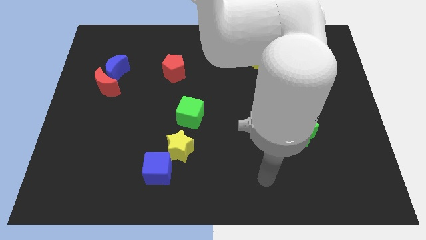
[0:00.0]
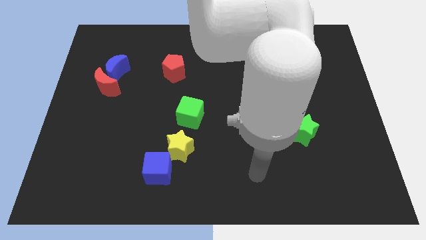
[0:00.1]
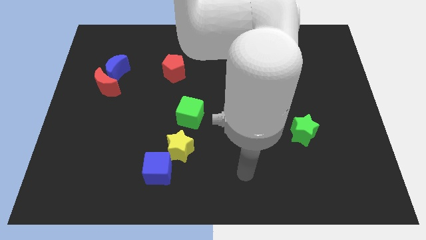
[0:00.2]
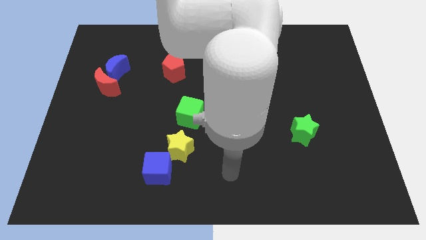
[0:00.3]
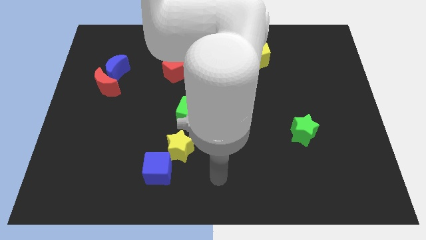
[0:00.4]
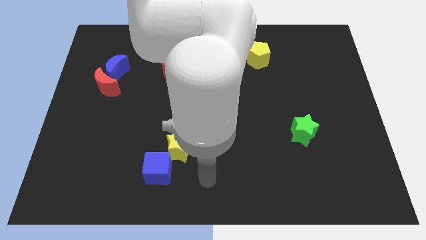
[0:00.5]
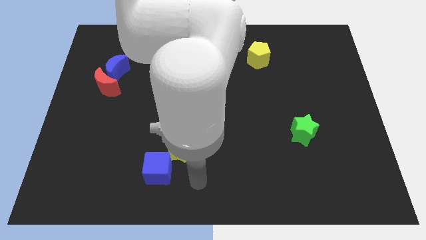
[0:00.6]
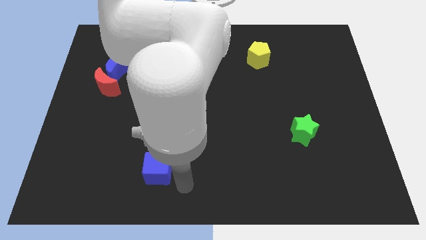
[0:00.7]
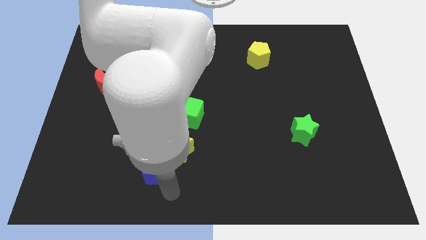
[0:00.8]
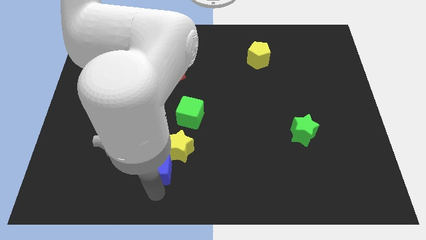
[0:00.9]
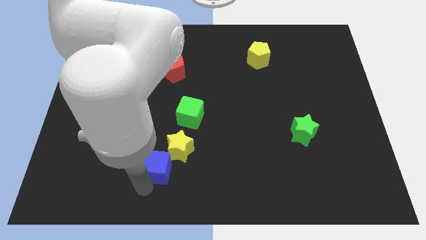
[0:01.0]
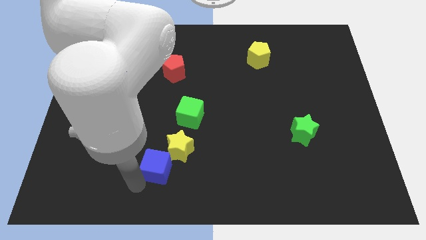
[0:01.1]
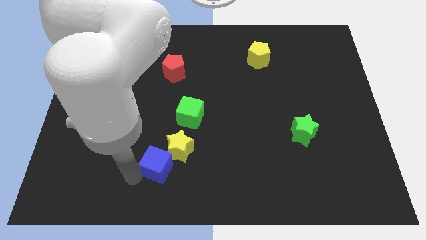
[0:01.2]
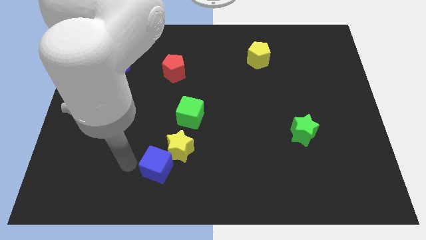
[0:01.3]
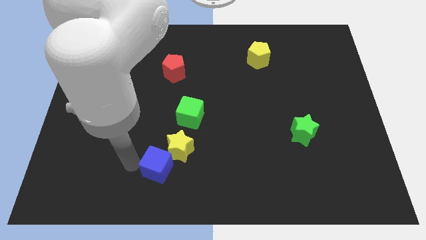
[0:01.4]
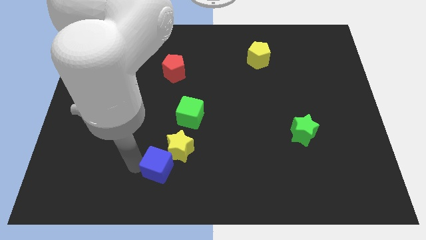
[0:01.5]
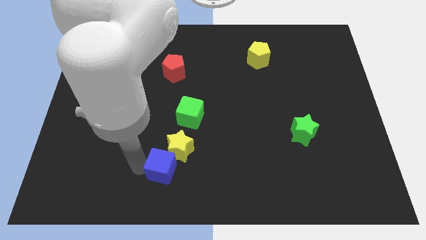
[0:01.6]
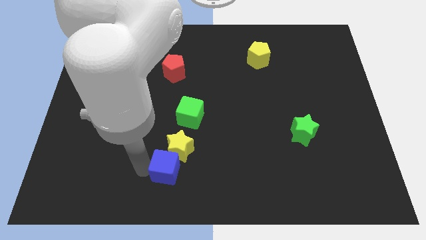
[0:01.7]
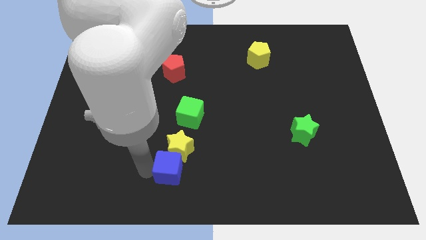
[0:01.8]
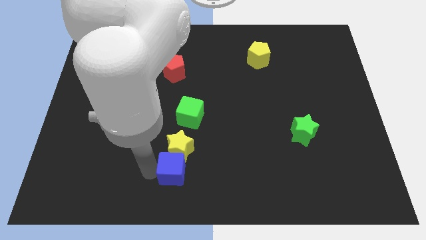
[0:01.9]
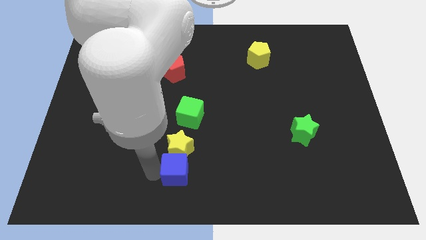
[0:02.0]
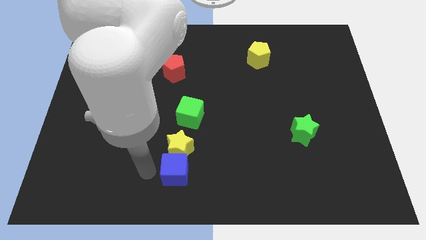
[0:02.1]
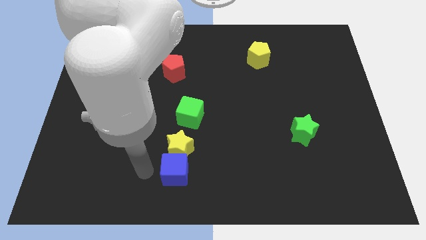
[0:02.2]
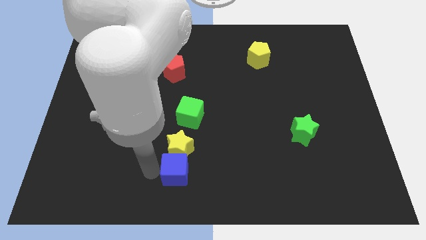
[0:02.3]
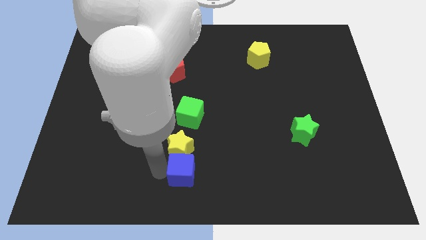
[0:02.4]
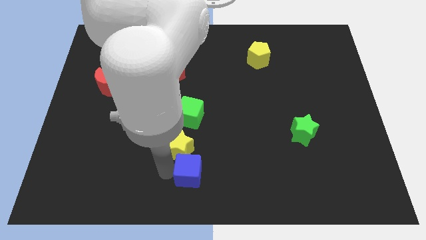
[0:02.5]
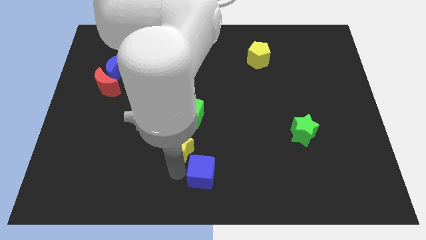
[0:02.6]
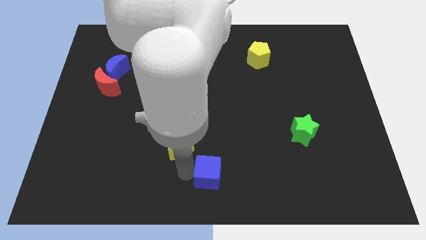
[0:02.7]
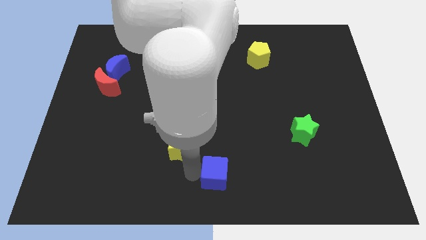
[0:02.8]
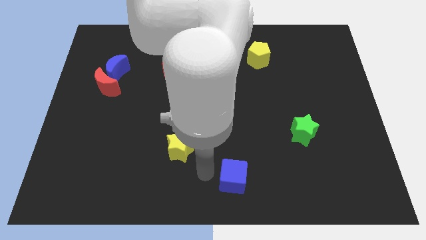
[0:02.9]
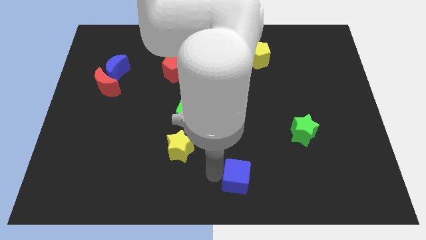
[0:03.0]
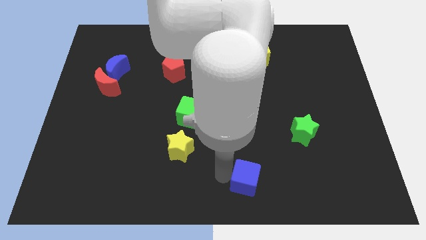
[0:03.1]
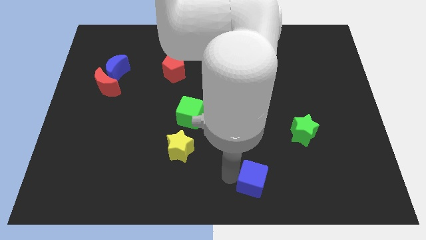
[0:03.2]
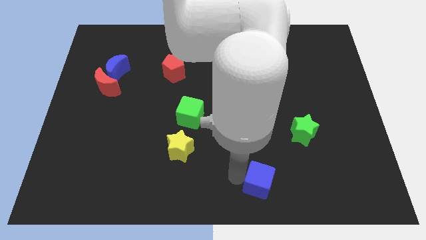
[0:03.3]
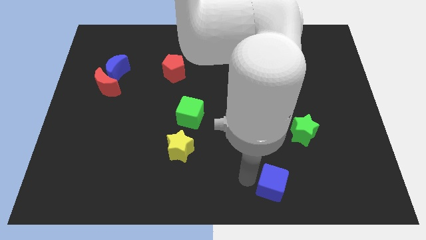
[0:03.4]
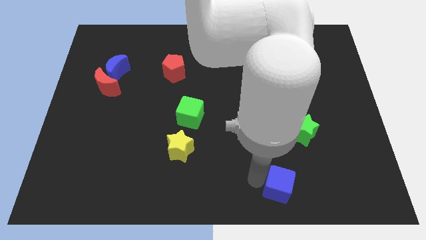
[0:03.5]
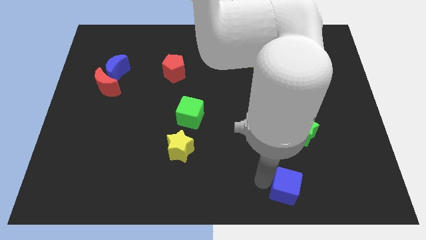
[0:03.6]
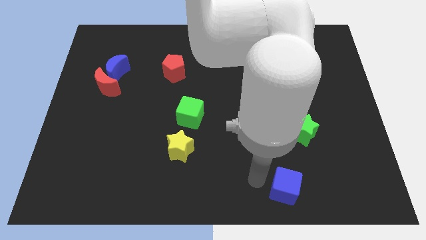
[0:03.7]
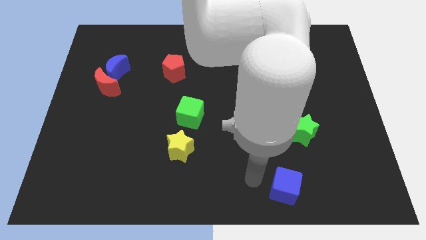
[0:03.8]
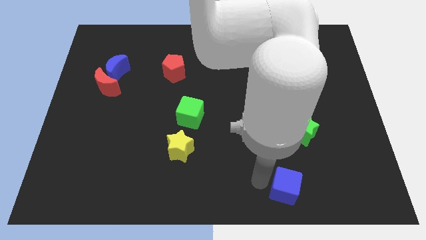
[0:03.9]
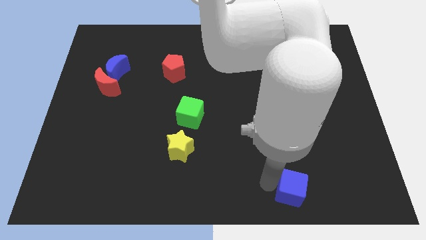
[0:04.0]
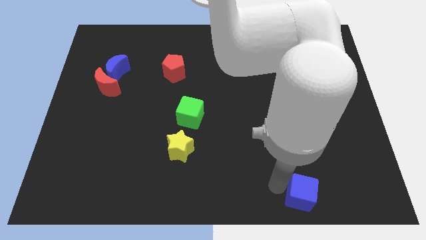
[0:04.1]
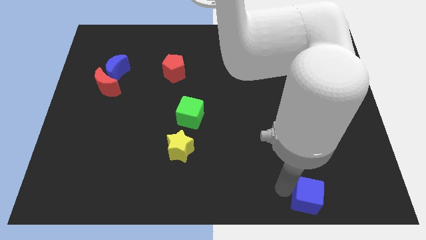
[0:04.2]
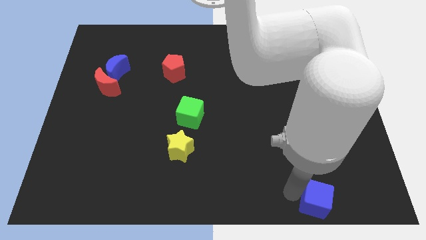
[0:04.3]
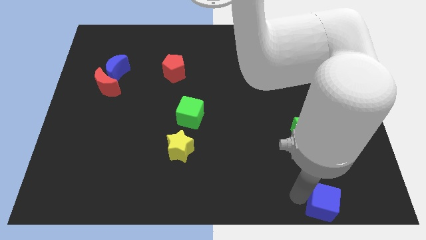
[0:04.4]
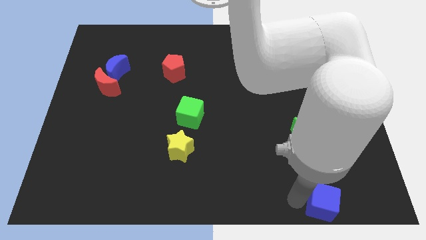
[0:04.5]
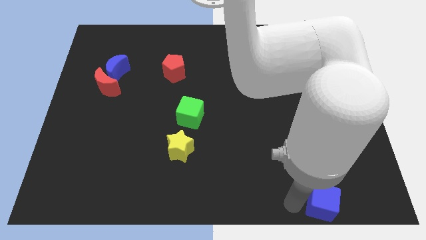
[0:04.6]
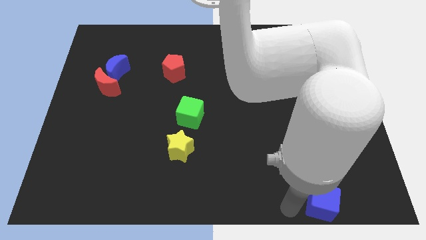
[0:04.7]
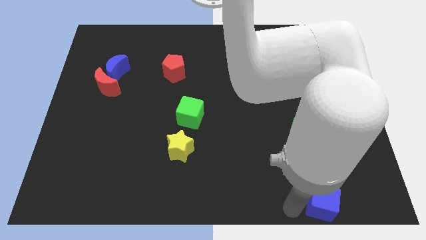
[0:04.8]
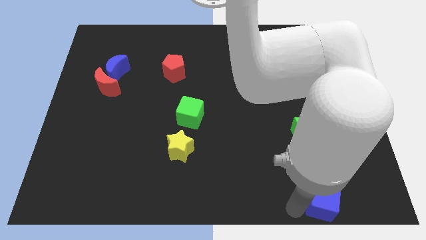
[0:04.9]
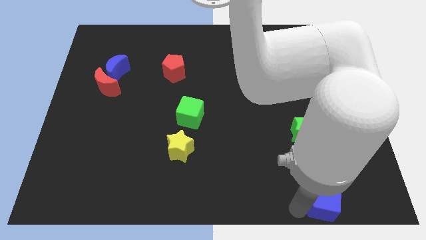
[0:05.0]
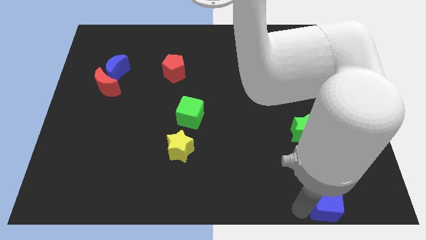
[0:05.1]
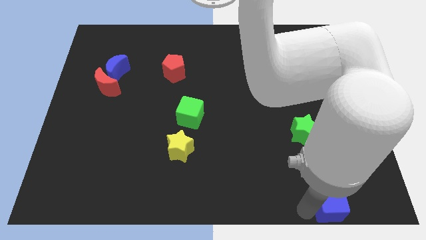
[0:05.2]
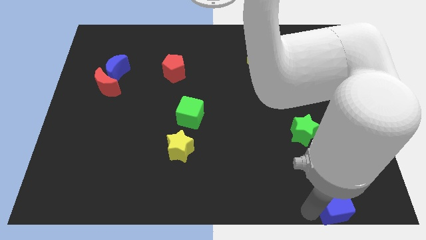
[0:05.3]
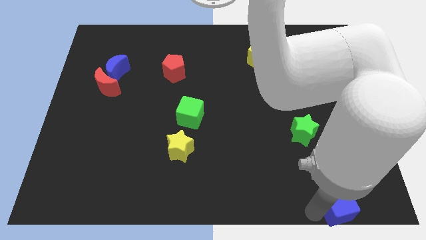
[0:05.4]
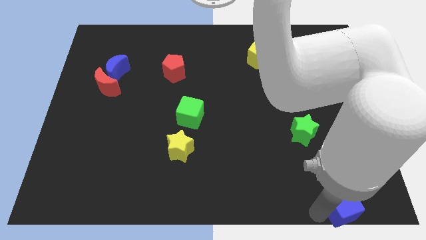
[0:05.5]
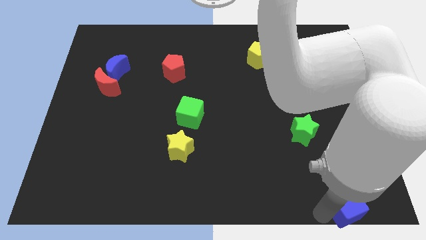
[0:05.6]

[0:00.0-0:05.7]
move the blue cube to the bottom right corner

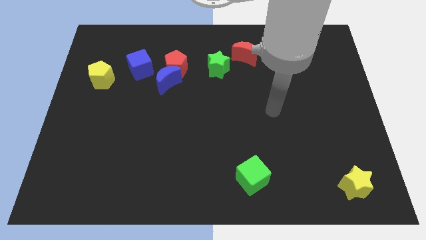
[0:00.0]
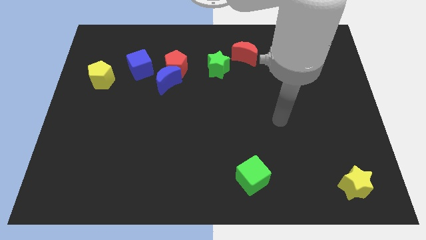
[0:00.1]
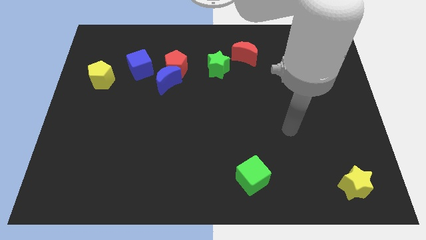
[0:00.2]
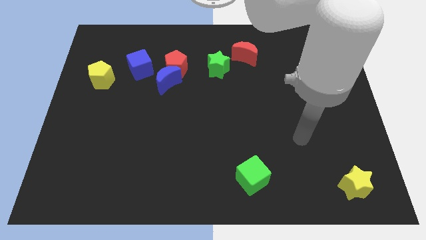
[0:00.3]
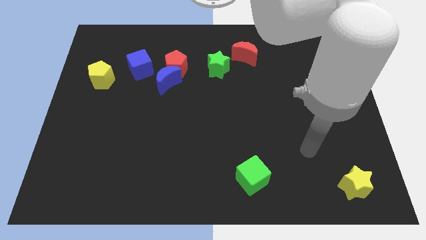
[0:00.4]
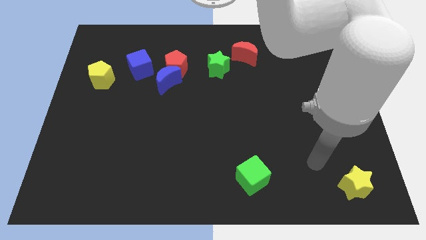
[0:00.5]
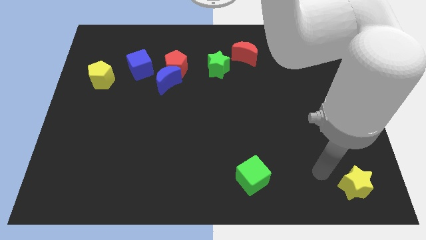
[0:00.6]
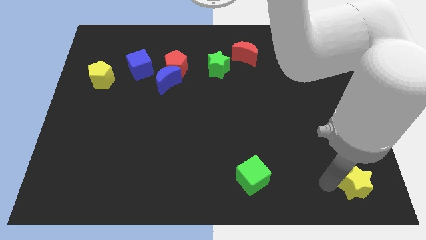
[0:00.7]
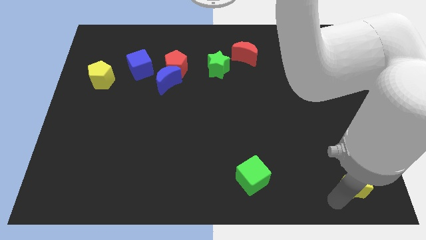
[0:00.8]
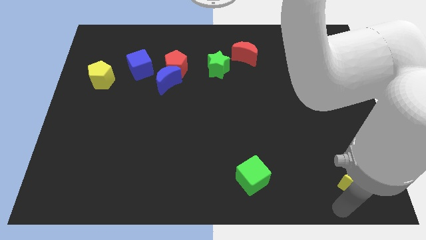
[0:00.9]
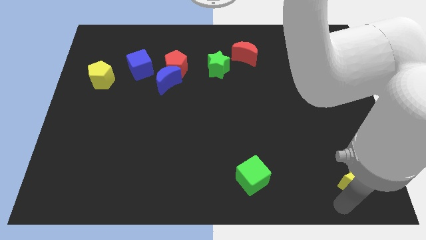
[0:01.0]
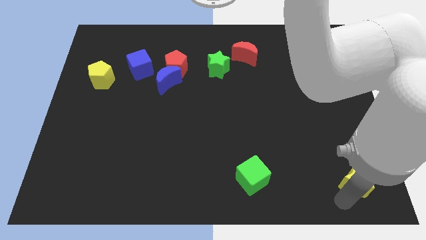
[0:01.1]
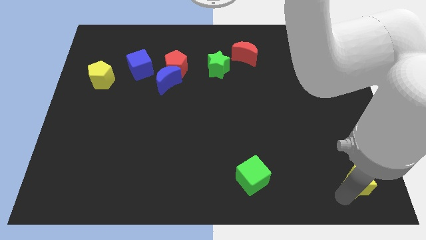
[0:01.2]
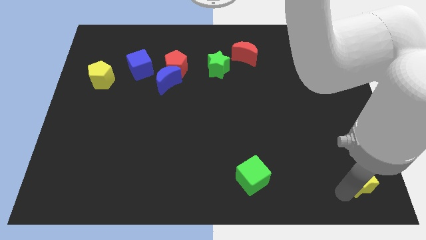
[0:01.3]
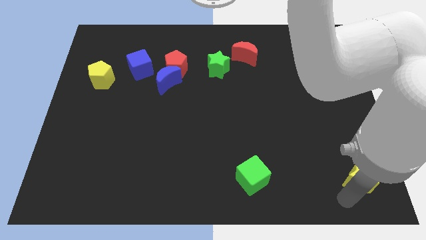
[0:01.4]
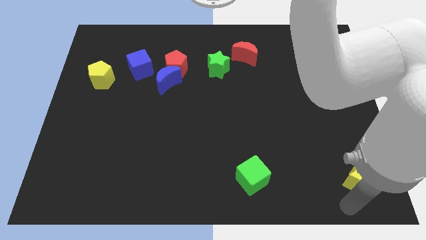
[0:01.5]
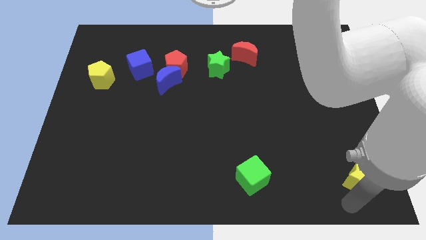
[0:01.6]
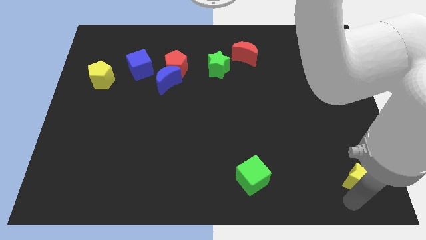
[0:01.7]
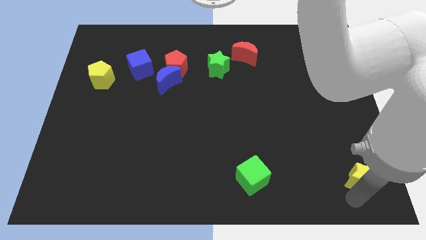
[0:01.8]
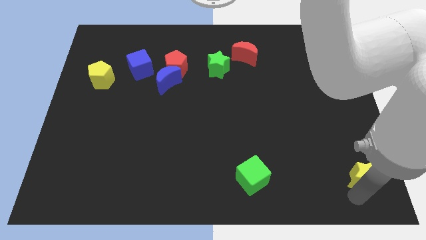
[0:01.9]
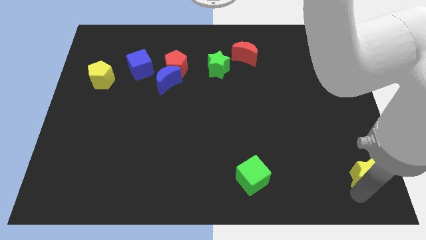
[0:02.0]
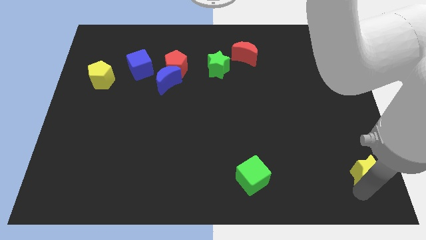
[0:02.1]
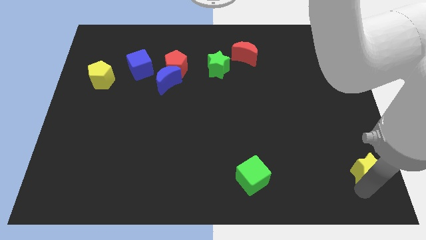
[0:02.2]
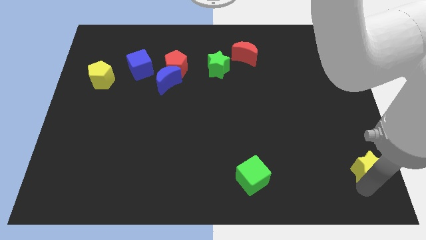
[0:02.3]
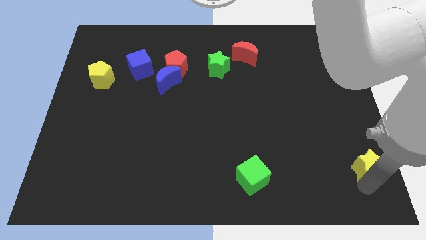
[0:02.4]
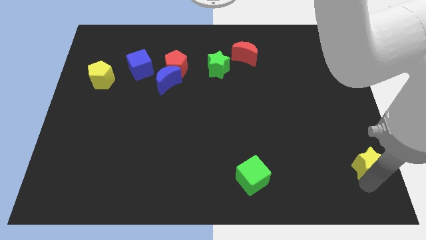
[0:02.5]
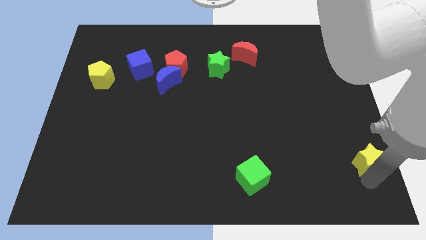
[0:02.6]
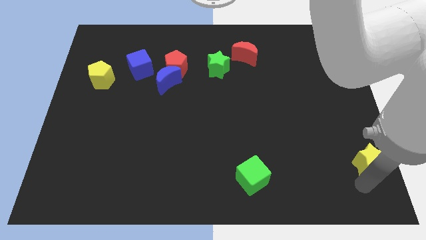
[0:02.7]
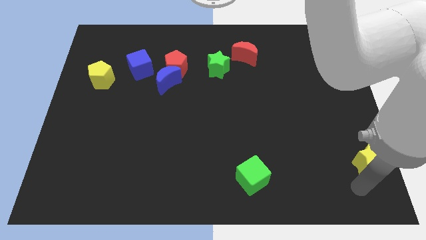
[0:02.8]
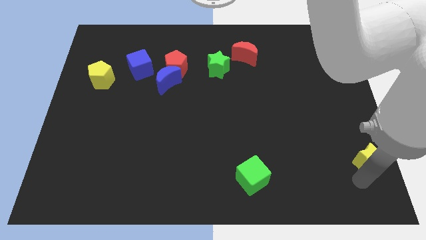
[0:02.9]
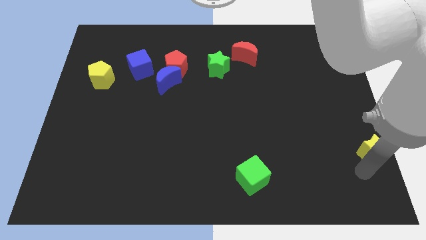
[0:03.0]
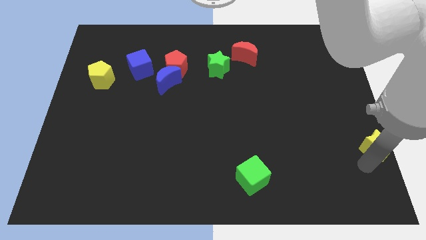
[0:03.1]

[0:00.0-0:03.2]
move the yellow star to the right side of the board
